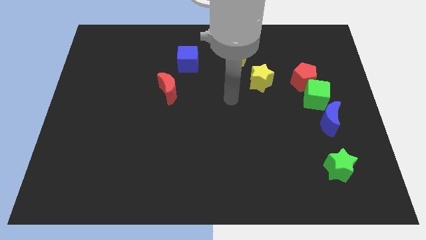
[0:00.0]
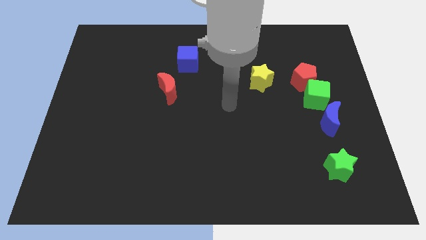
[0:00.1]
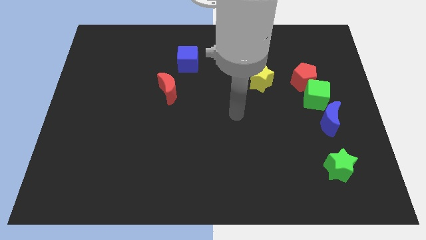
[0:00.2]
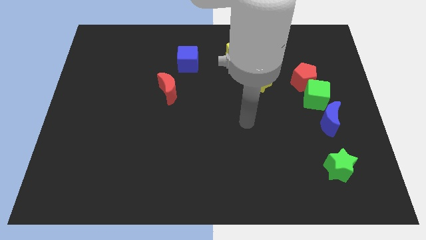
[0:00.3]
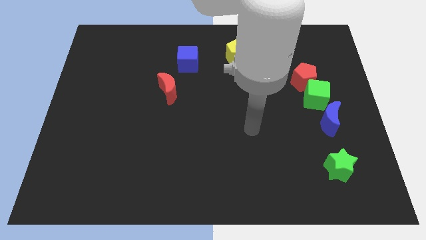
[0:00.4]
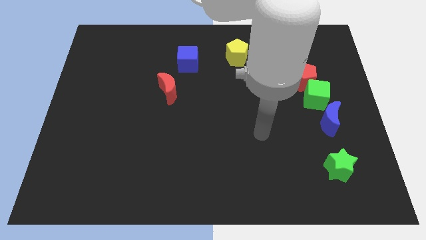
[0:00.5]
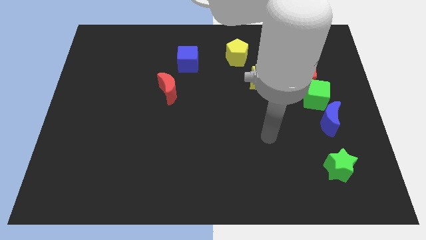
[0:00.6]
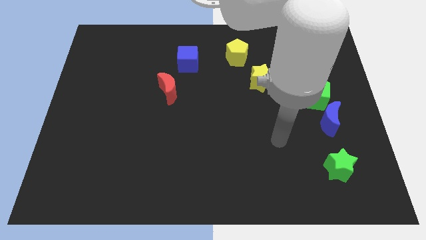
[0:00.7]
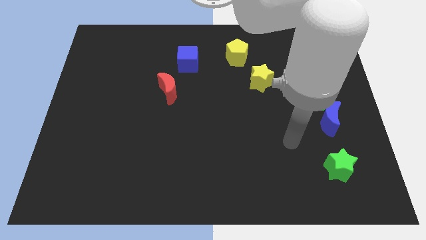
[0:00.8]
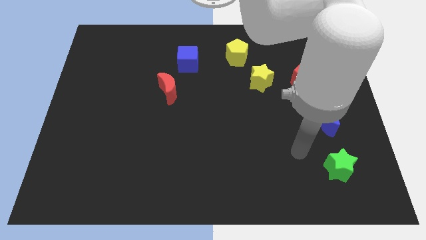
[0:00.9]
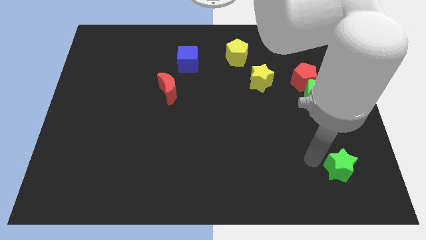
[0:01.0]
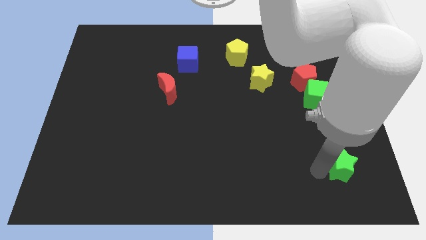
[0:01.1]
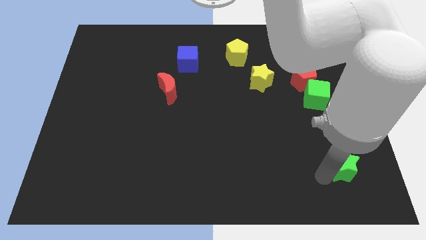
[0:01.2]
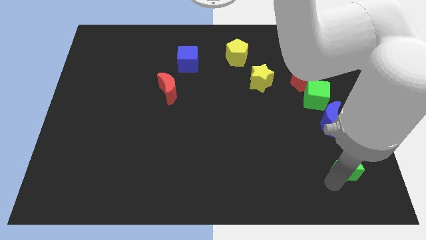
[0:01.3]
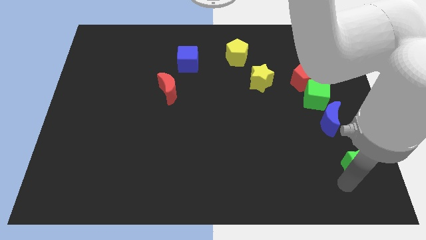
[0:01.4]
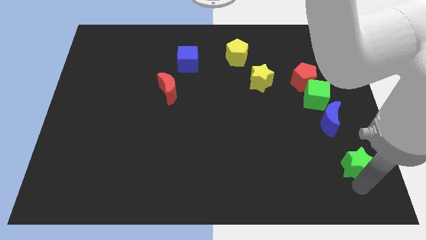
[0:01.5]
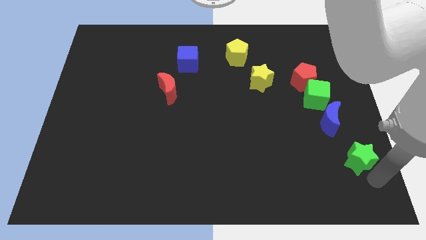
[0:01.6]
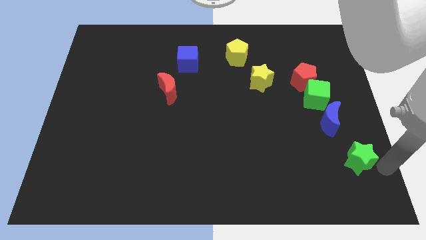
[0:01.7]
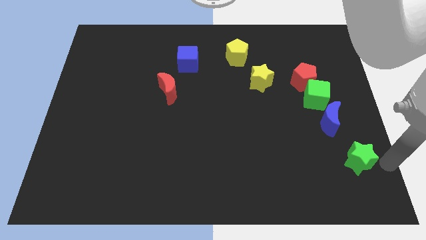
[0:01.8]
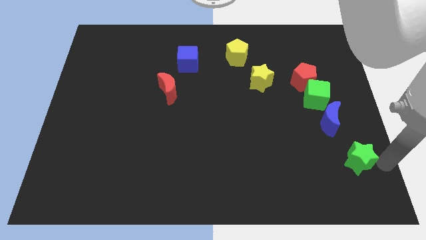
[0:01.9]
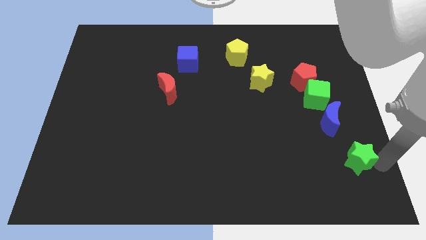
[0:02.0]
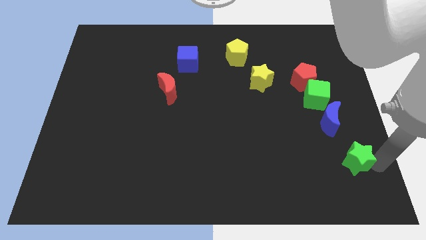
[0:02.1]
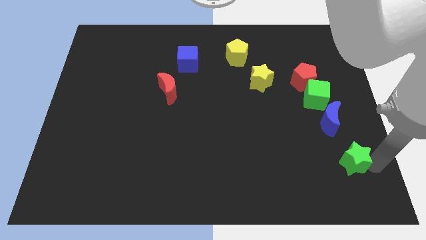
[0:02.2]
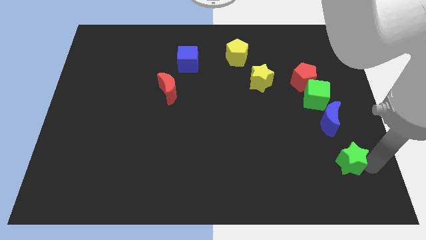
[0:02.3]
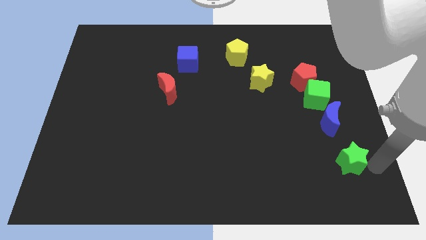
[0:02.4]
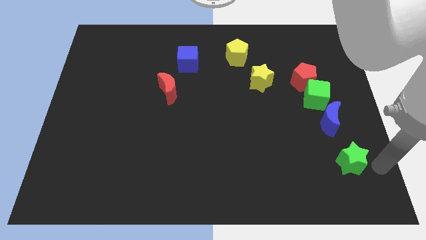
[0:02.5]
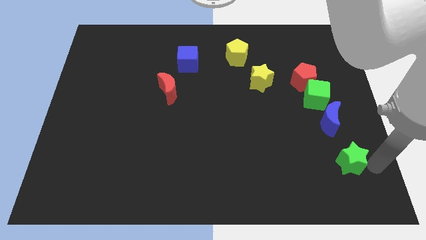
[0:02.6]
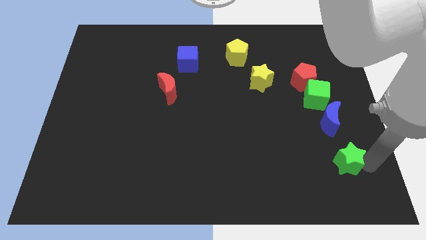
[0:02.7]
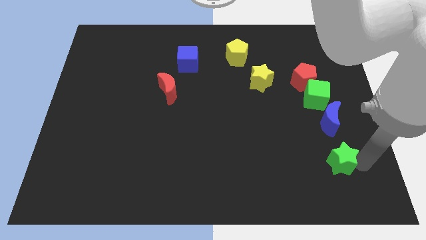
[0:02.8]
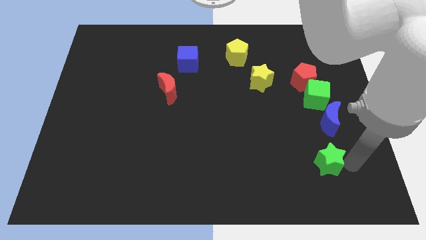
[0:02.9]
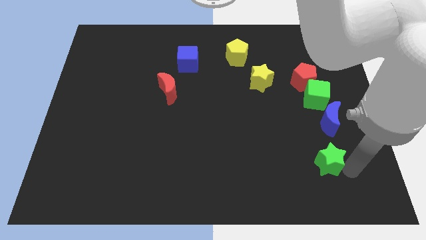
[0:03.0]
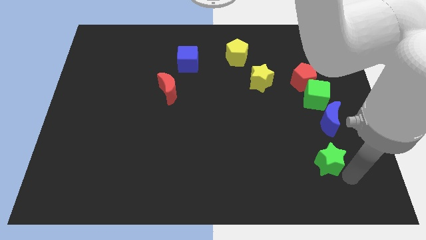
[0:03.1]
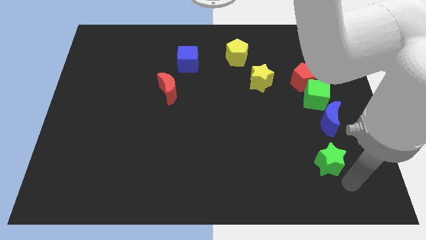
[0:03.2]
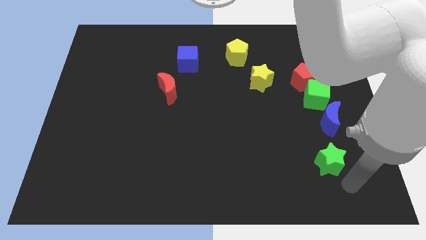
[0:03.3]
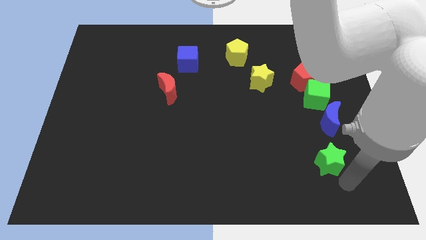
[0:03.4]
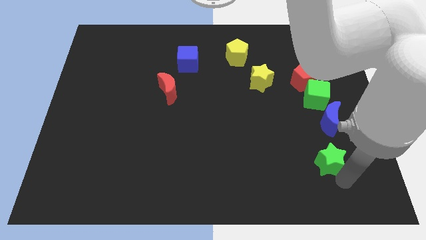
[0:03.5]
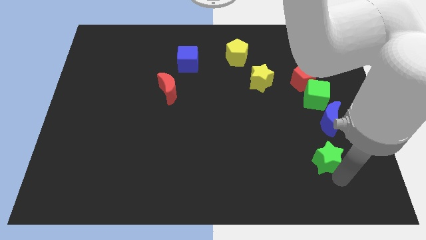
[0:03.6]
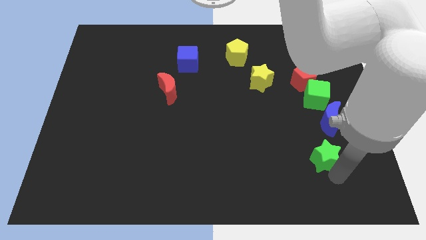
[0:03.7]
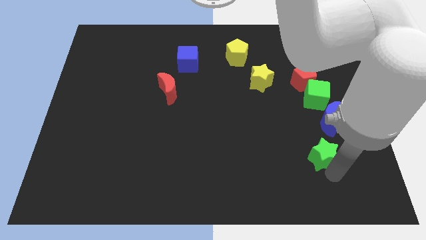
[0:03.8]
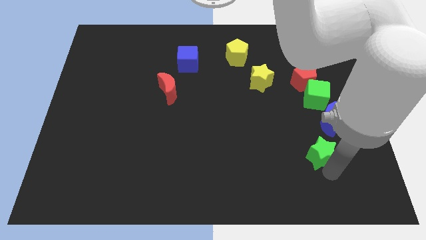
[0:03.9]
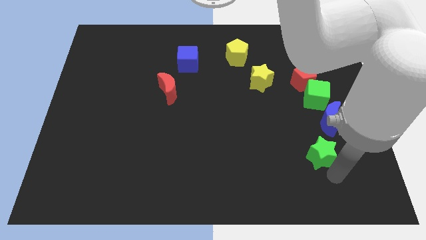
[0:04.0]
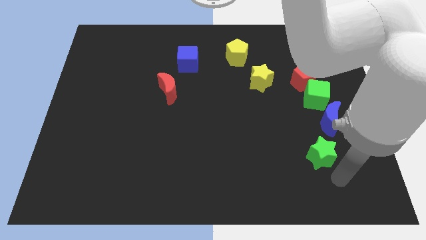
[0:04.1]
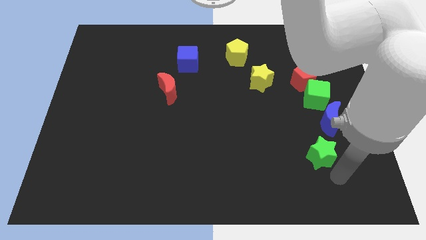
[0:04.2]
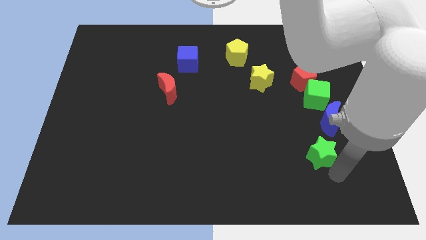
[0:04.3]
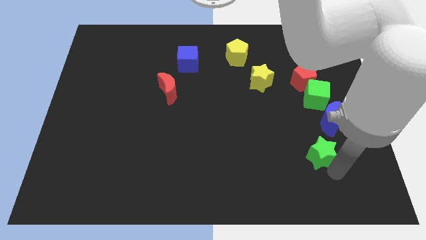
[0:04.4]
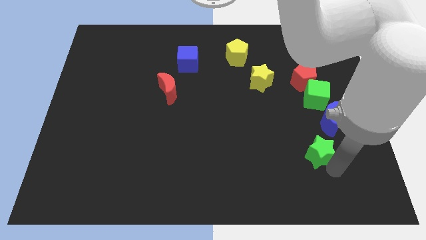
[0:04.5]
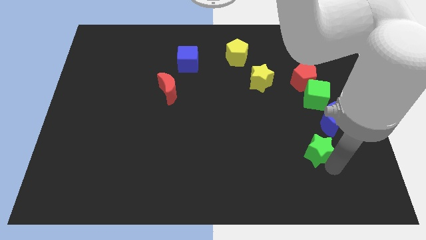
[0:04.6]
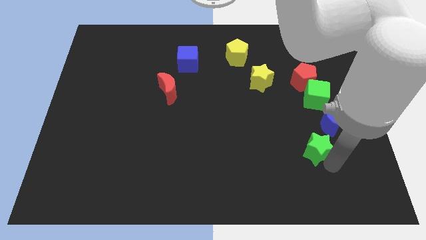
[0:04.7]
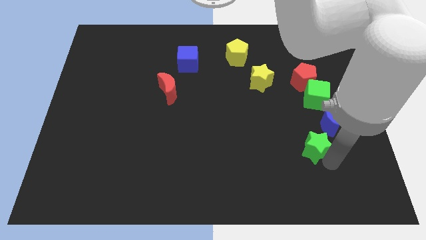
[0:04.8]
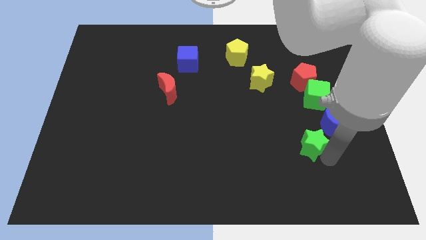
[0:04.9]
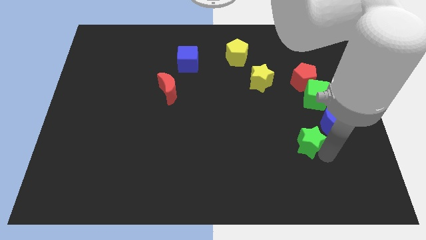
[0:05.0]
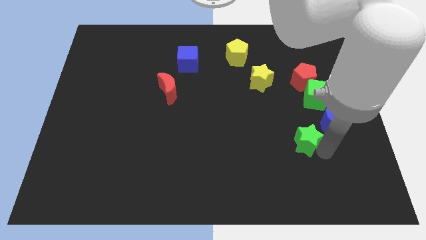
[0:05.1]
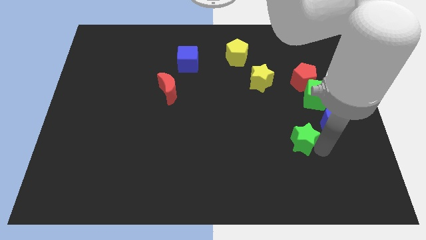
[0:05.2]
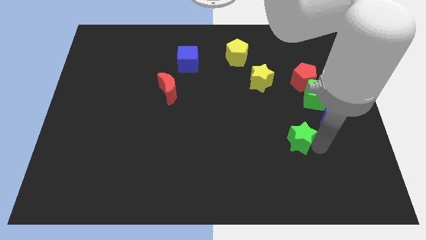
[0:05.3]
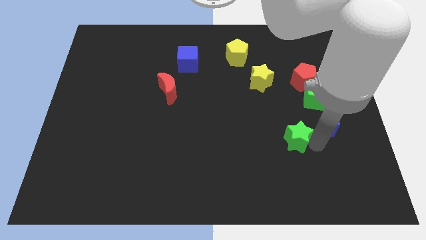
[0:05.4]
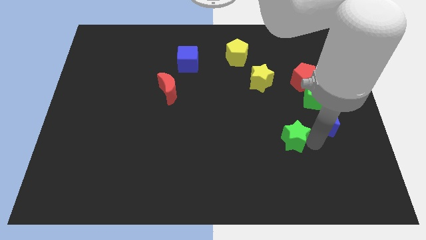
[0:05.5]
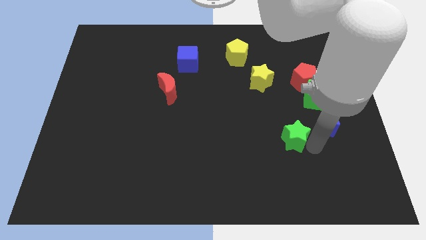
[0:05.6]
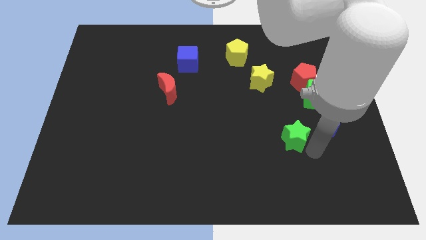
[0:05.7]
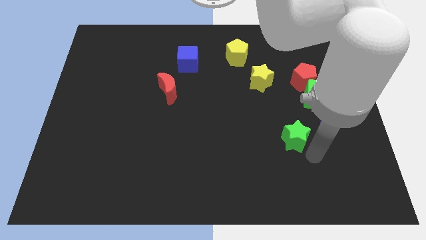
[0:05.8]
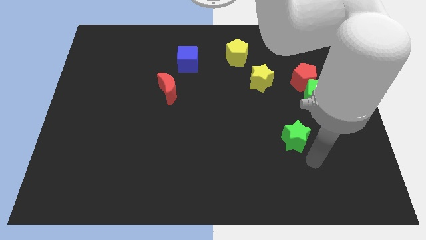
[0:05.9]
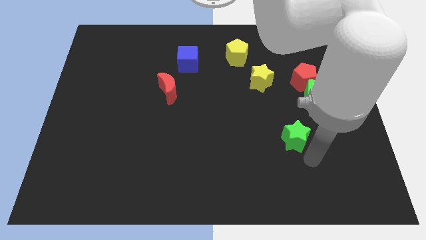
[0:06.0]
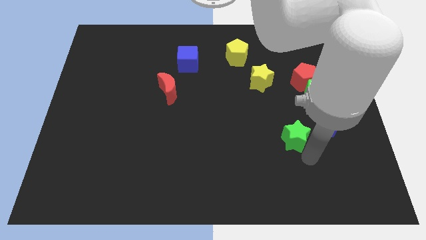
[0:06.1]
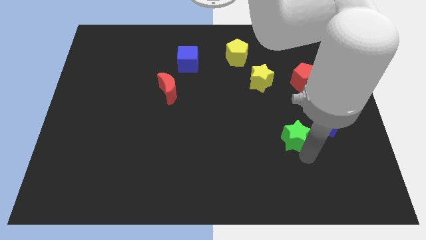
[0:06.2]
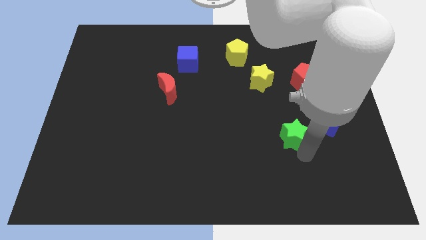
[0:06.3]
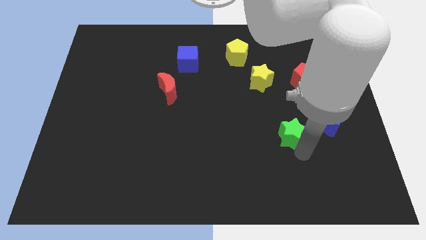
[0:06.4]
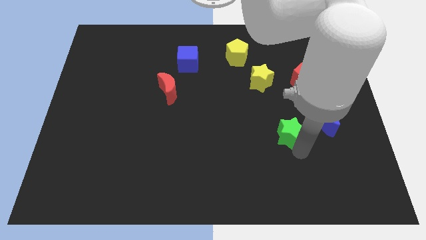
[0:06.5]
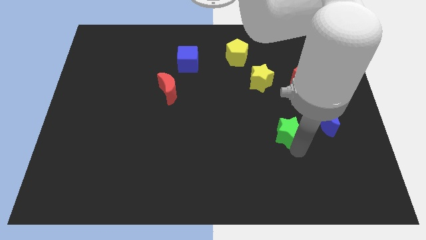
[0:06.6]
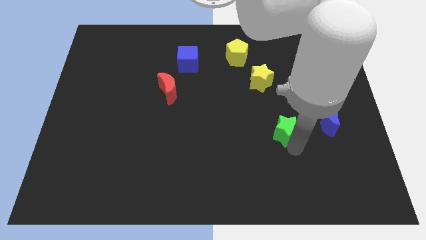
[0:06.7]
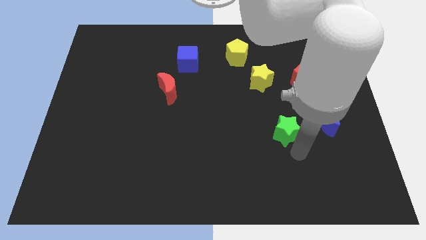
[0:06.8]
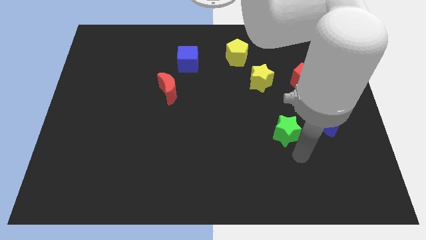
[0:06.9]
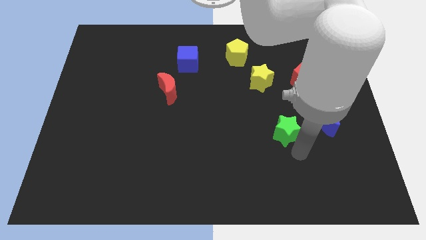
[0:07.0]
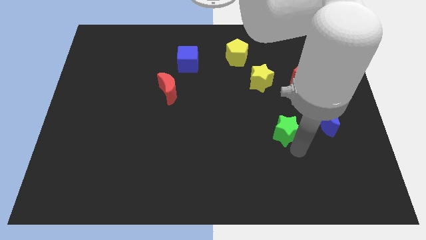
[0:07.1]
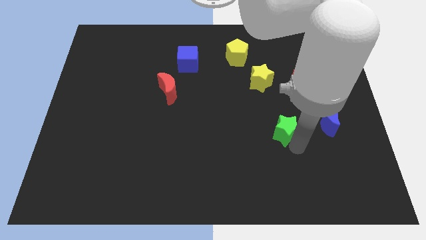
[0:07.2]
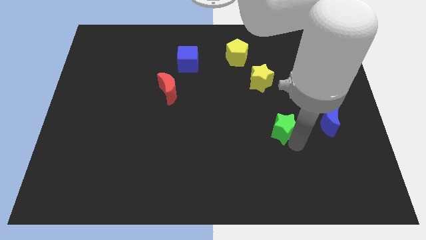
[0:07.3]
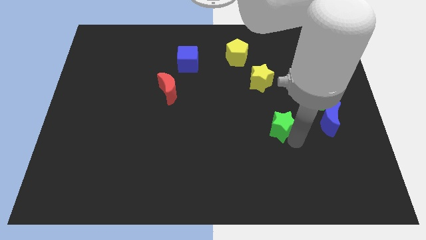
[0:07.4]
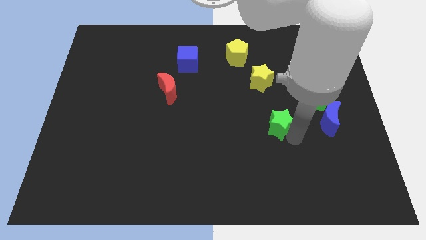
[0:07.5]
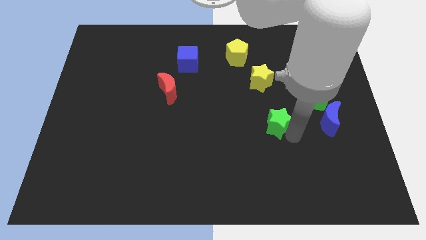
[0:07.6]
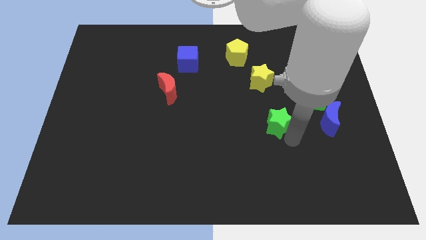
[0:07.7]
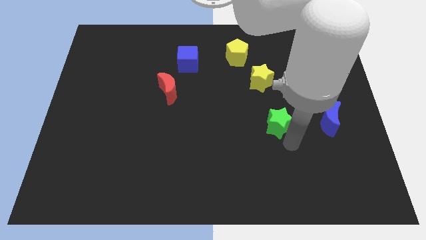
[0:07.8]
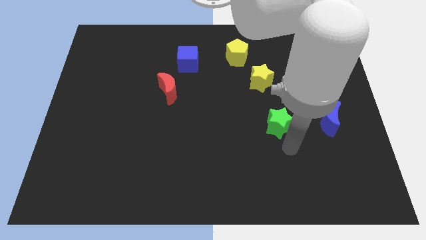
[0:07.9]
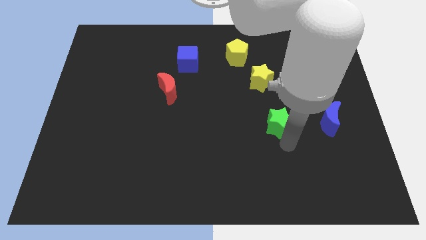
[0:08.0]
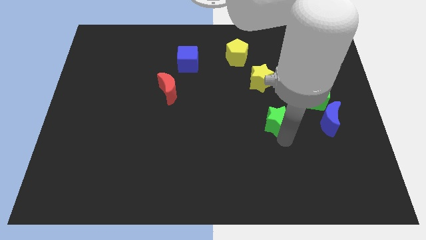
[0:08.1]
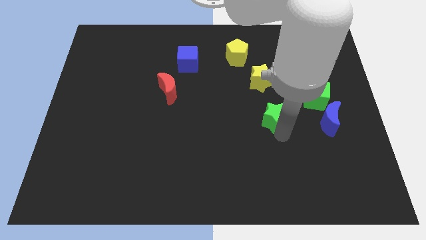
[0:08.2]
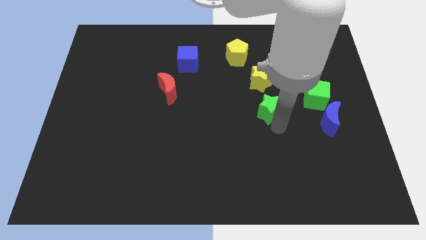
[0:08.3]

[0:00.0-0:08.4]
slide the green star upwards and left
